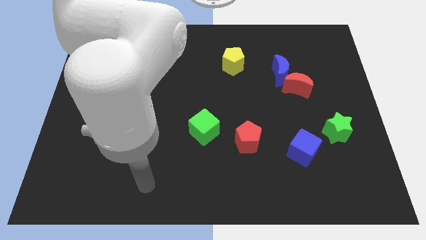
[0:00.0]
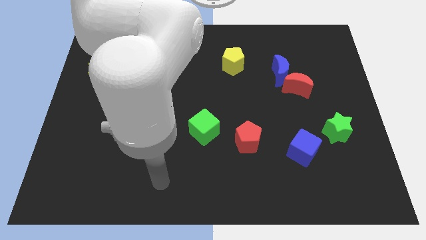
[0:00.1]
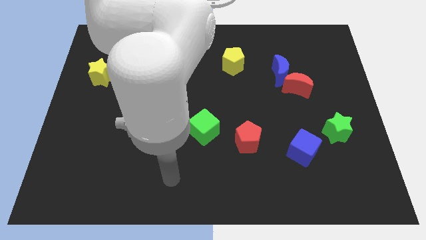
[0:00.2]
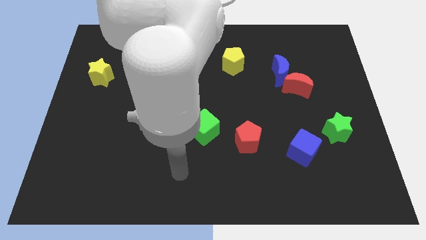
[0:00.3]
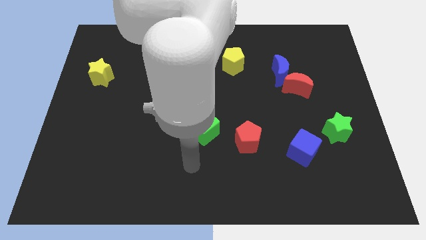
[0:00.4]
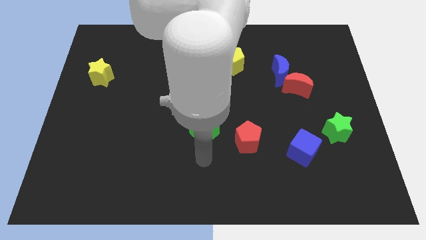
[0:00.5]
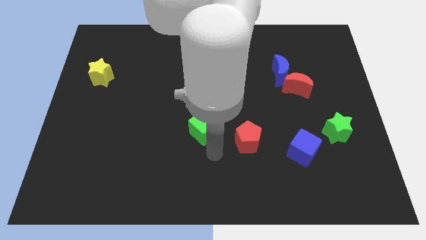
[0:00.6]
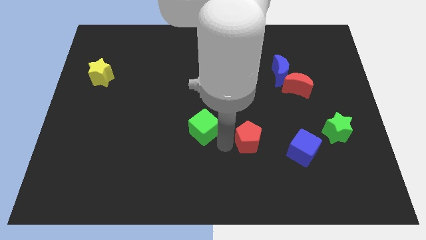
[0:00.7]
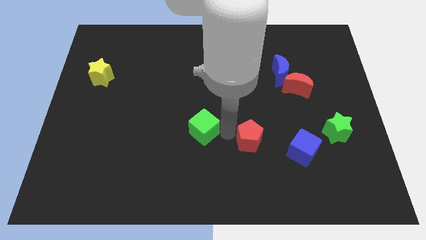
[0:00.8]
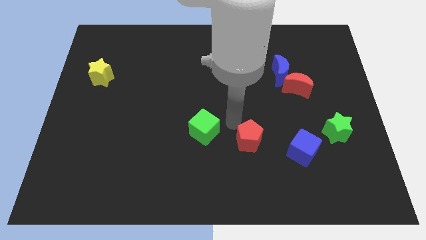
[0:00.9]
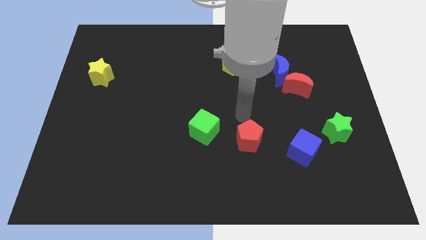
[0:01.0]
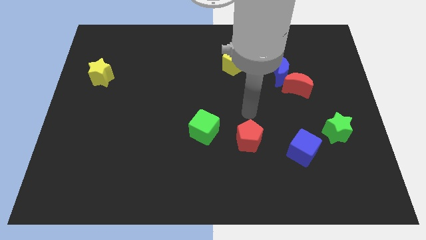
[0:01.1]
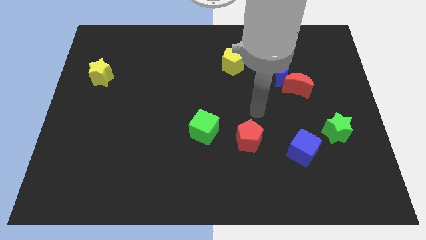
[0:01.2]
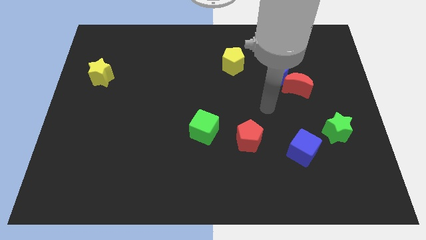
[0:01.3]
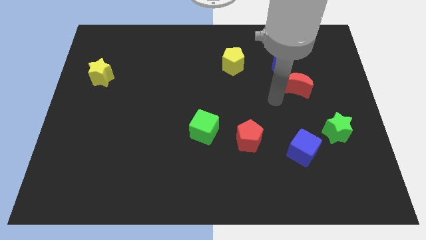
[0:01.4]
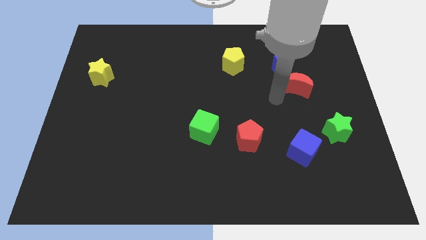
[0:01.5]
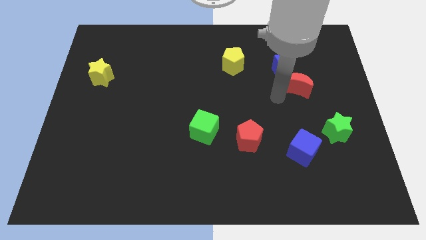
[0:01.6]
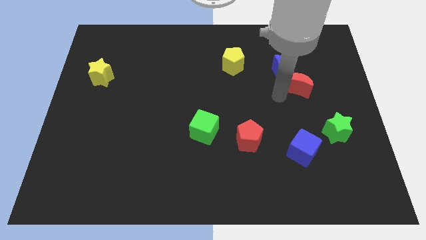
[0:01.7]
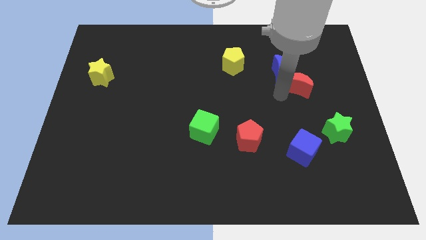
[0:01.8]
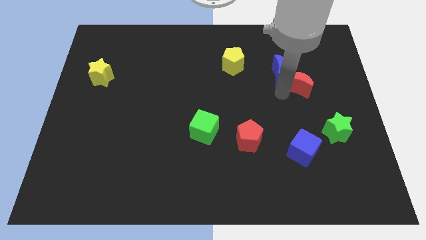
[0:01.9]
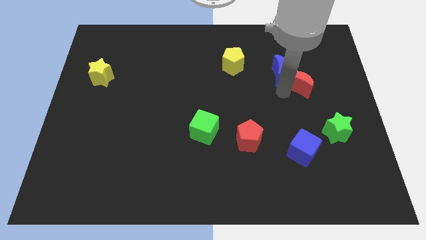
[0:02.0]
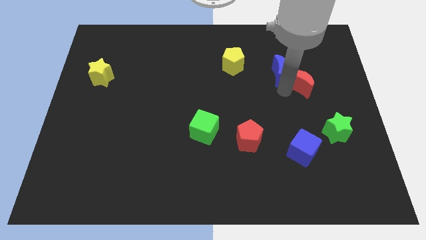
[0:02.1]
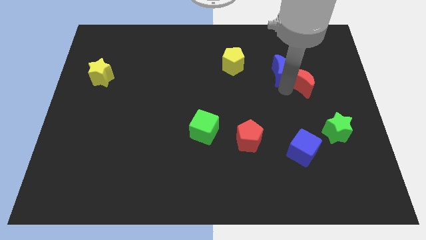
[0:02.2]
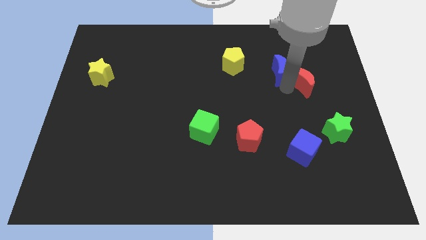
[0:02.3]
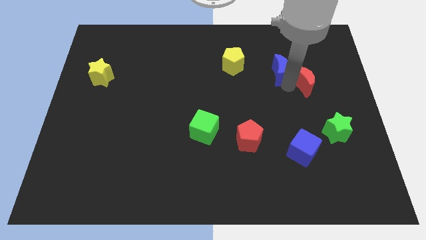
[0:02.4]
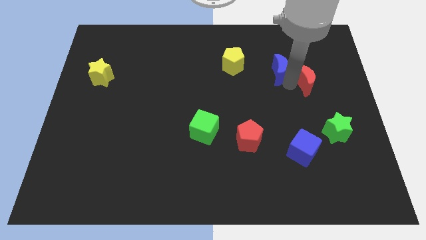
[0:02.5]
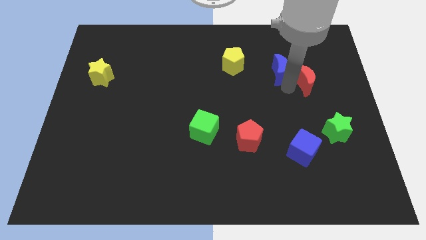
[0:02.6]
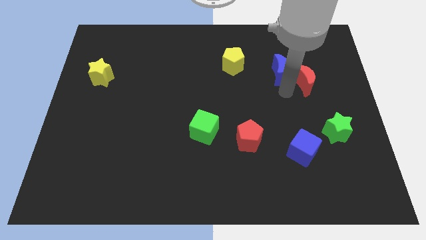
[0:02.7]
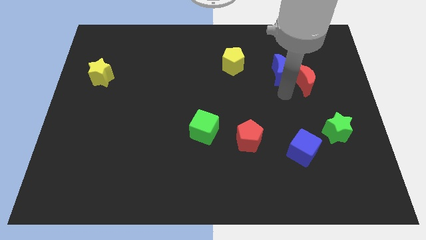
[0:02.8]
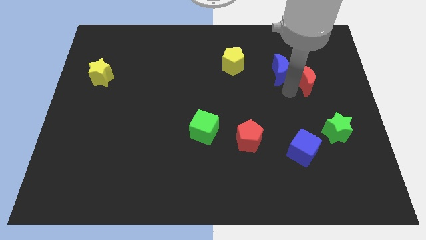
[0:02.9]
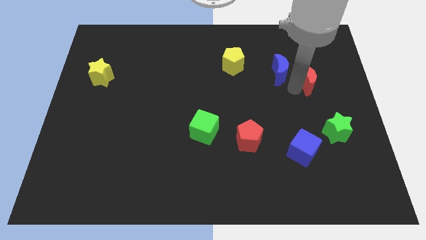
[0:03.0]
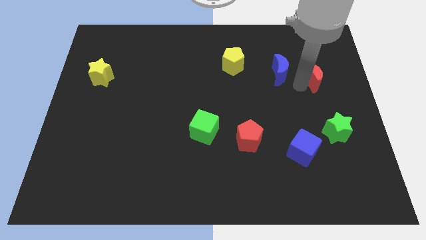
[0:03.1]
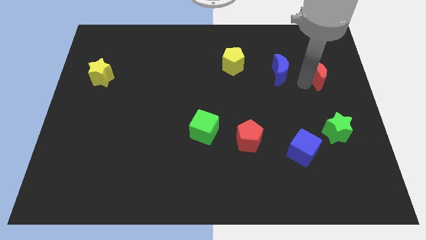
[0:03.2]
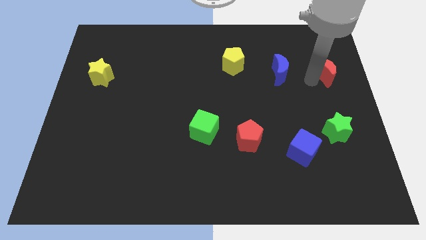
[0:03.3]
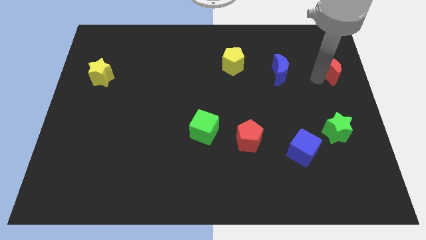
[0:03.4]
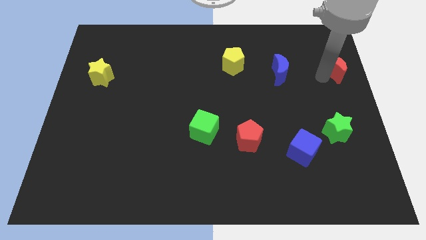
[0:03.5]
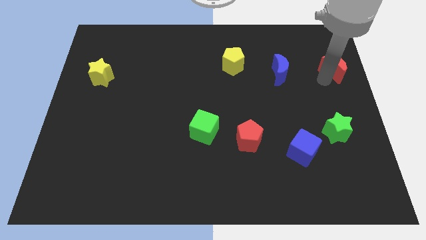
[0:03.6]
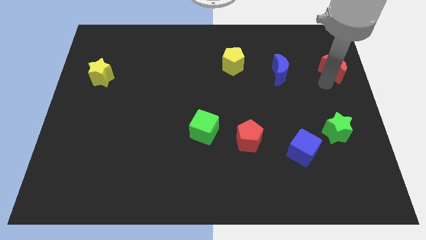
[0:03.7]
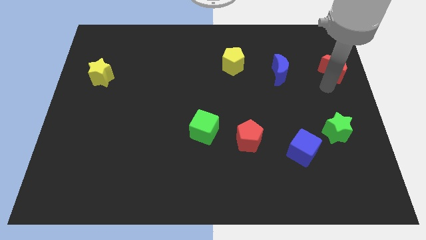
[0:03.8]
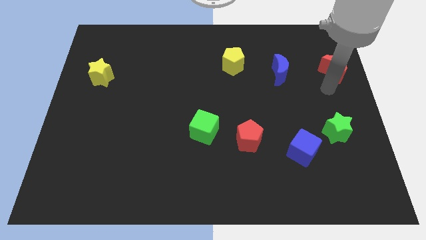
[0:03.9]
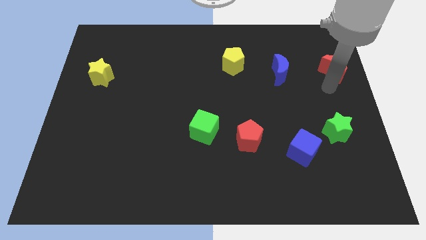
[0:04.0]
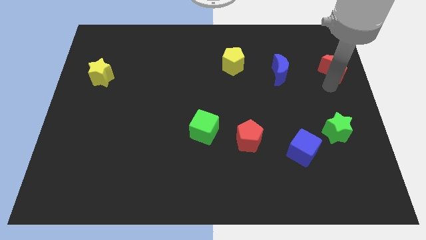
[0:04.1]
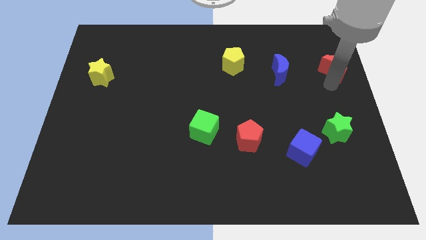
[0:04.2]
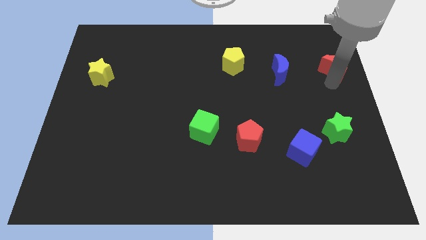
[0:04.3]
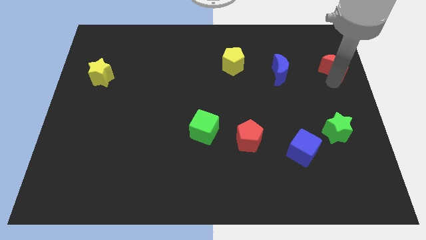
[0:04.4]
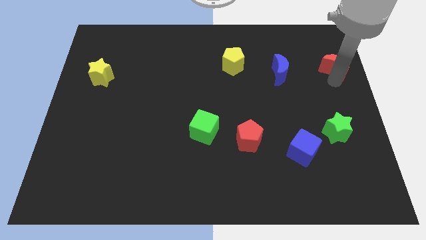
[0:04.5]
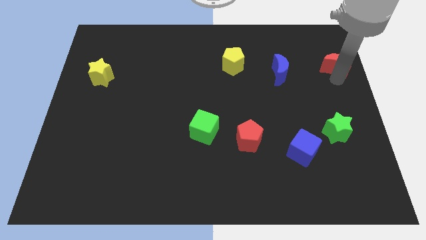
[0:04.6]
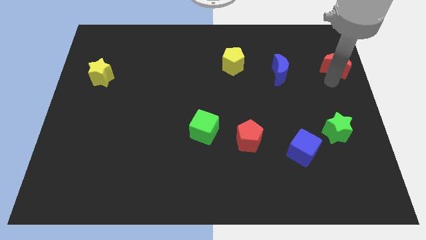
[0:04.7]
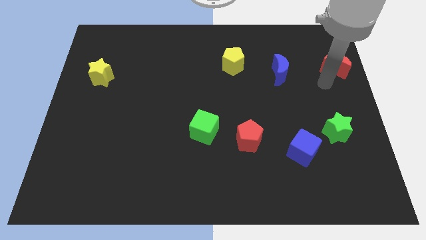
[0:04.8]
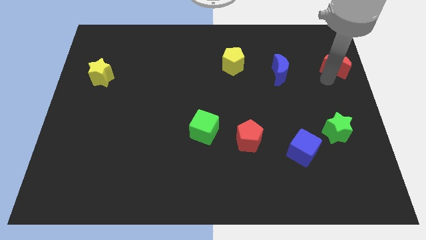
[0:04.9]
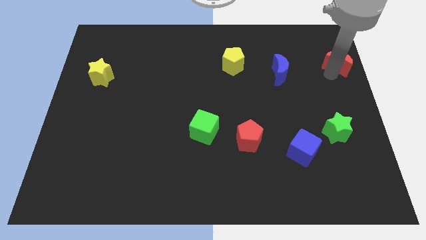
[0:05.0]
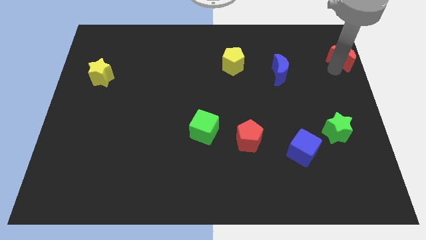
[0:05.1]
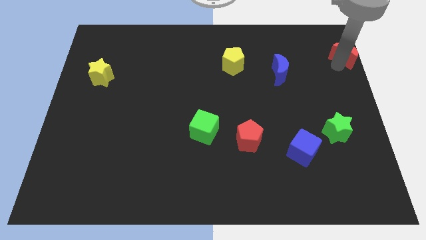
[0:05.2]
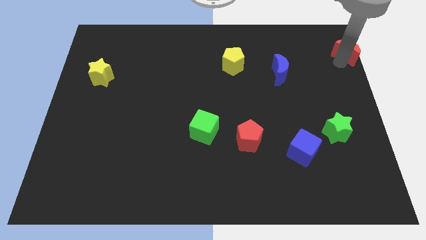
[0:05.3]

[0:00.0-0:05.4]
put the red moon to the top right of the board
